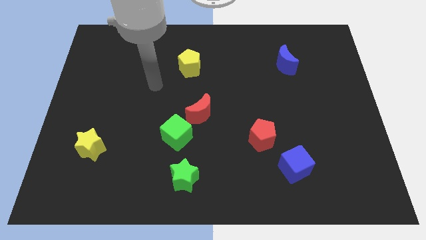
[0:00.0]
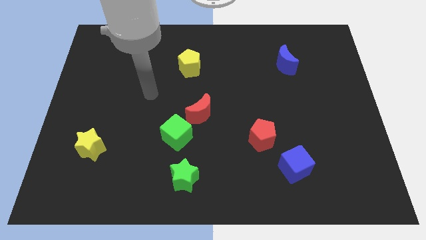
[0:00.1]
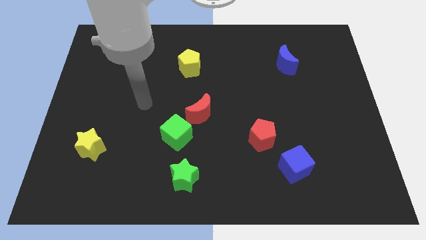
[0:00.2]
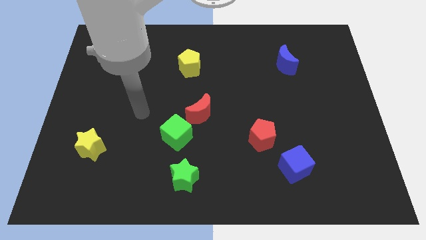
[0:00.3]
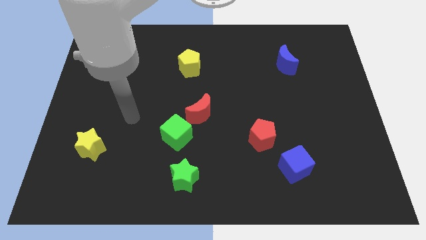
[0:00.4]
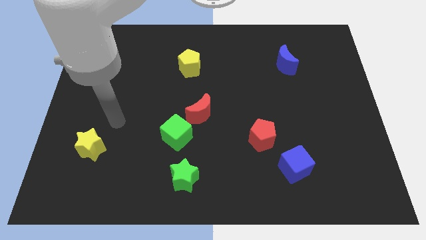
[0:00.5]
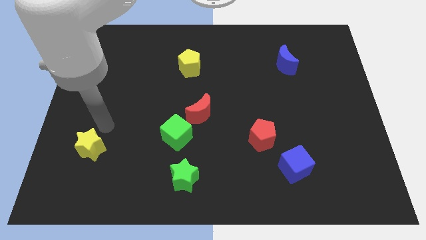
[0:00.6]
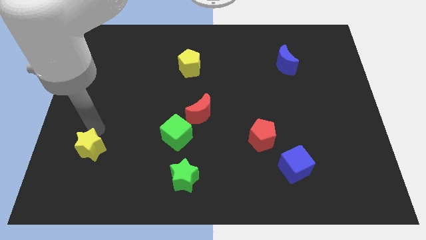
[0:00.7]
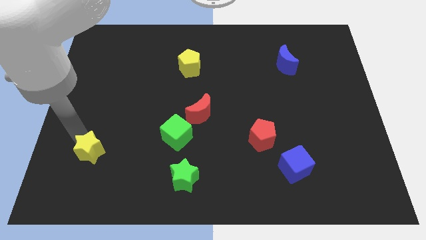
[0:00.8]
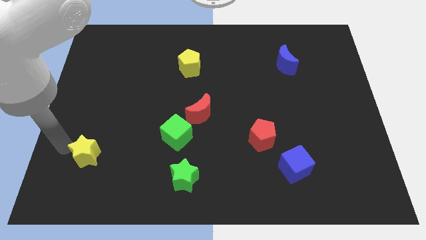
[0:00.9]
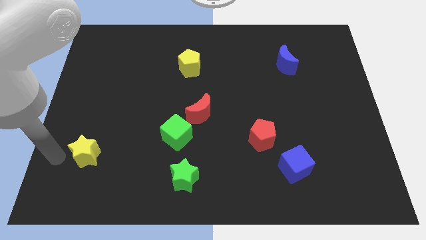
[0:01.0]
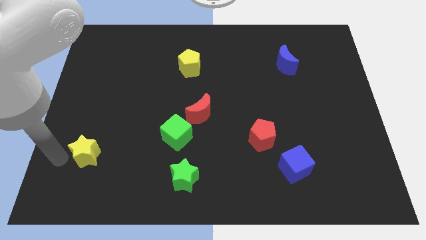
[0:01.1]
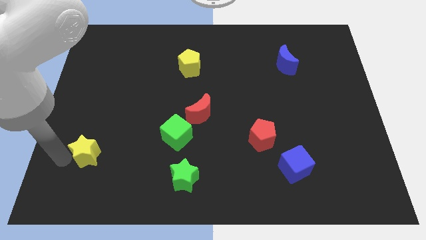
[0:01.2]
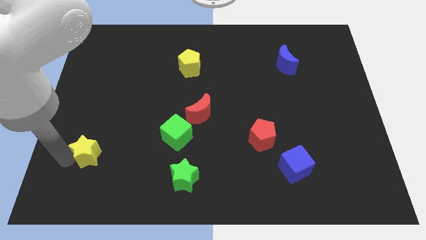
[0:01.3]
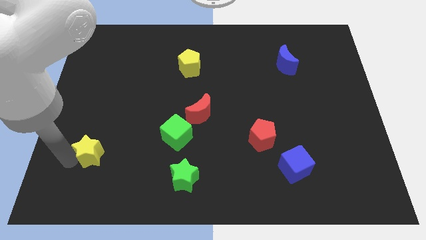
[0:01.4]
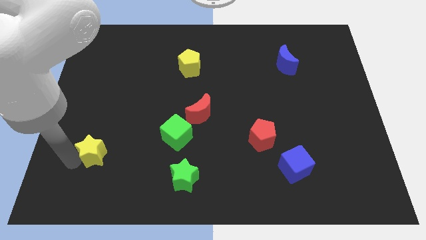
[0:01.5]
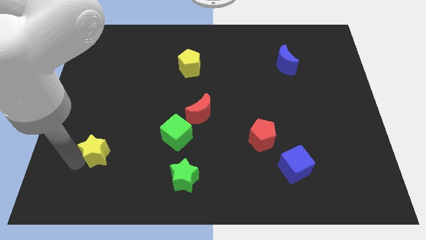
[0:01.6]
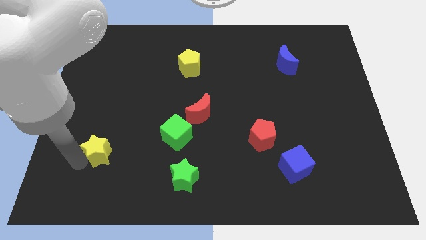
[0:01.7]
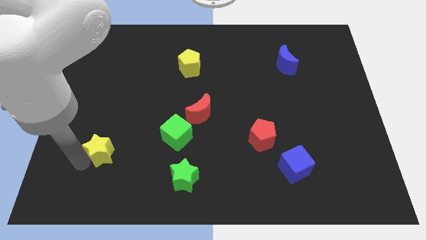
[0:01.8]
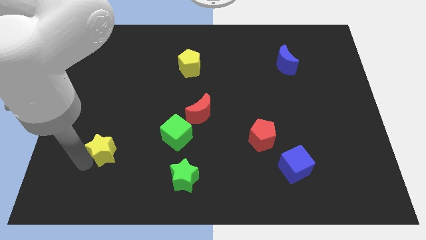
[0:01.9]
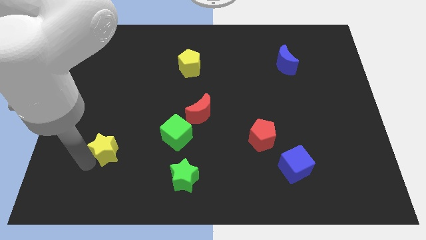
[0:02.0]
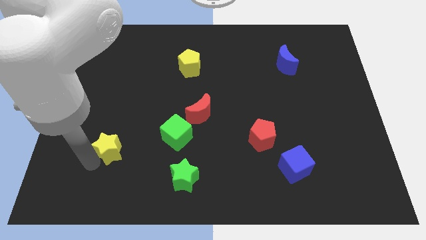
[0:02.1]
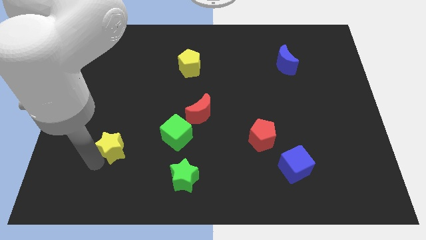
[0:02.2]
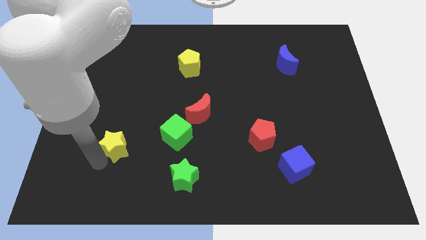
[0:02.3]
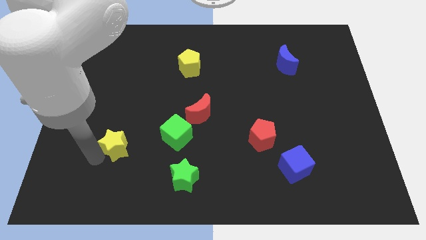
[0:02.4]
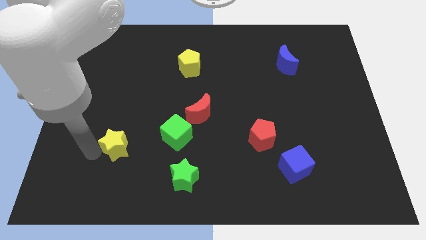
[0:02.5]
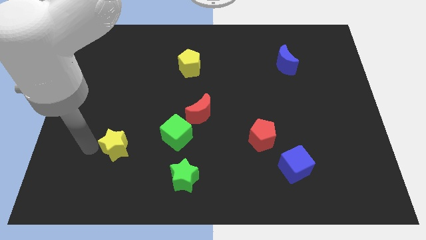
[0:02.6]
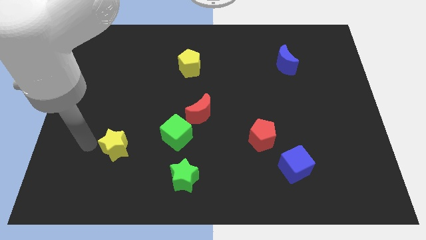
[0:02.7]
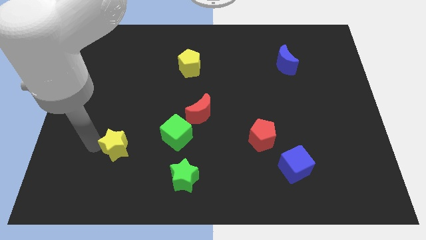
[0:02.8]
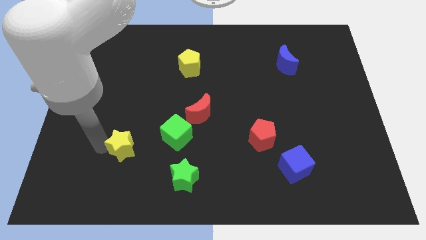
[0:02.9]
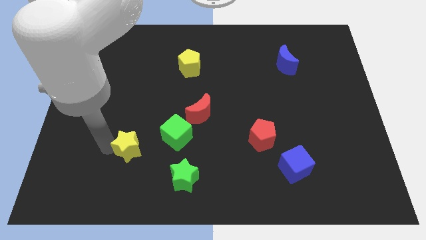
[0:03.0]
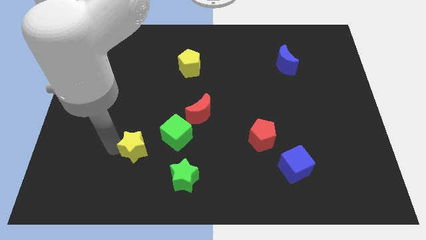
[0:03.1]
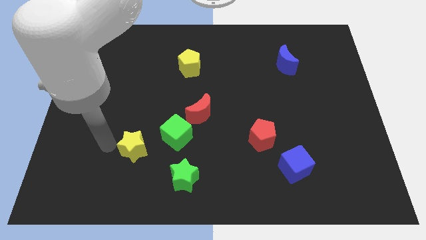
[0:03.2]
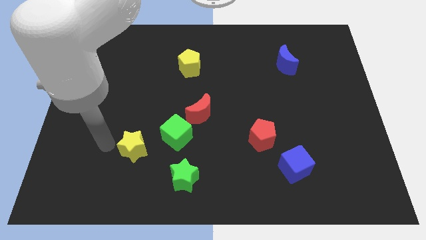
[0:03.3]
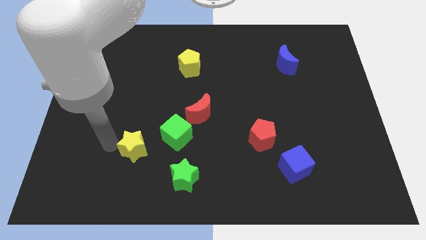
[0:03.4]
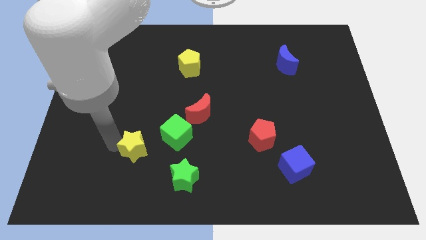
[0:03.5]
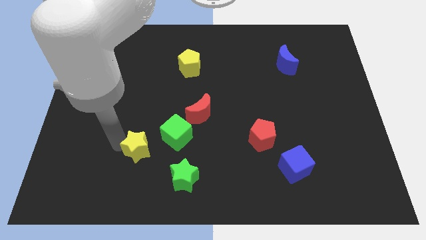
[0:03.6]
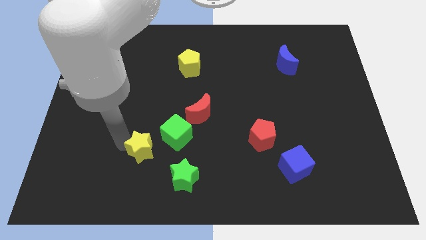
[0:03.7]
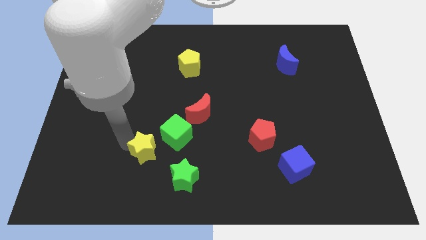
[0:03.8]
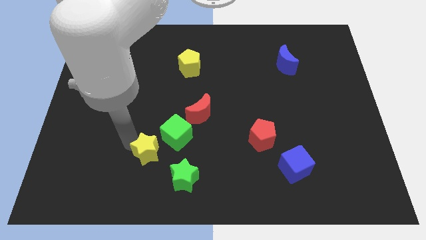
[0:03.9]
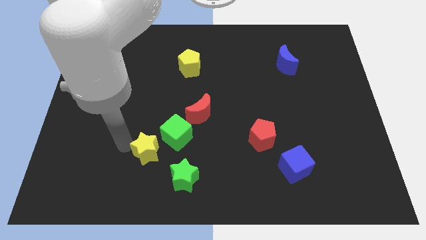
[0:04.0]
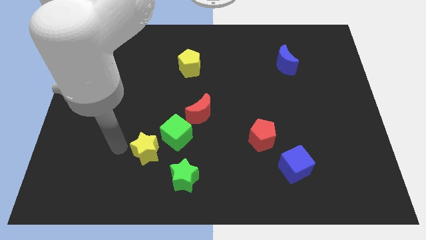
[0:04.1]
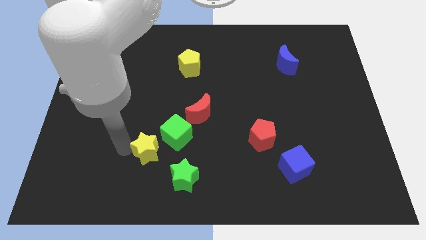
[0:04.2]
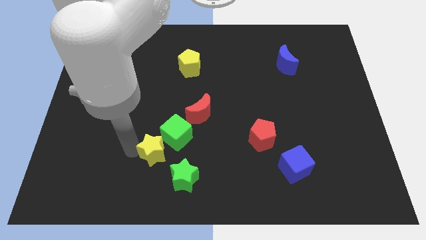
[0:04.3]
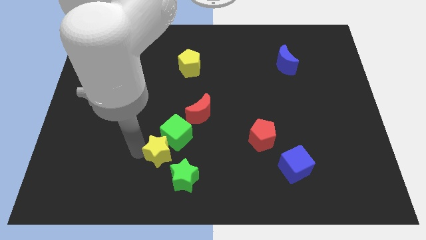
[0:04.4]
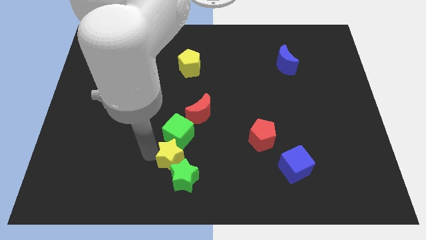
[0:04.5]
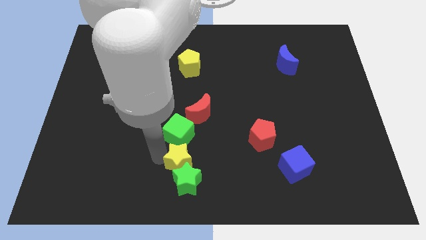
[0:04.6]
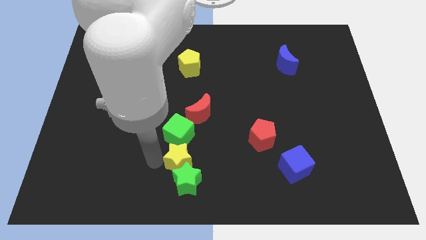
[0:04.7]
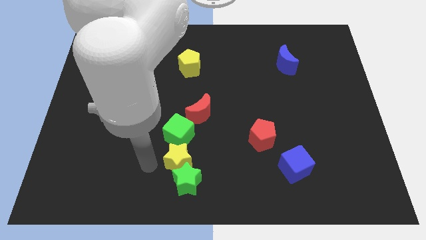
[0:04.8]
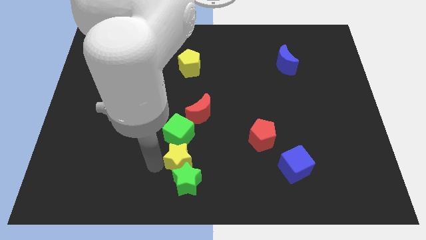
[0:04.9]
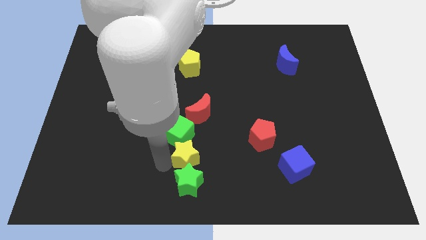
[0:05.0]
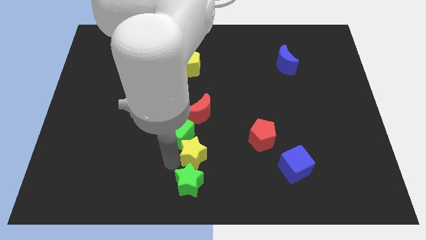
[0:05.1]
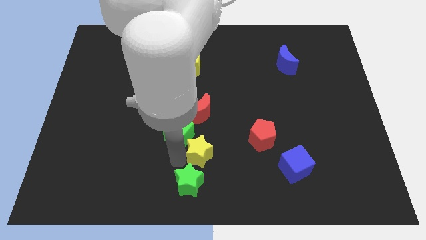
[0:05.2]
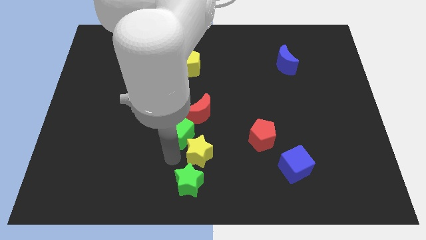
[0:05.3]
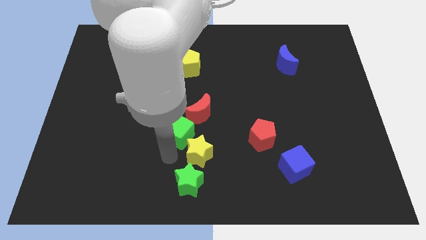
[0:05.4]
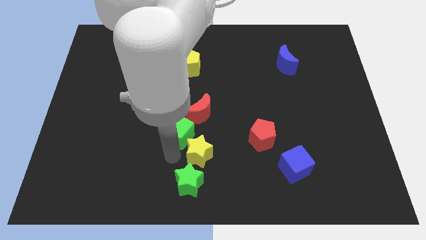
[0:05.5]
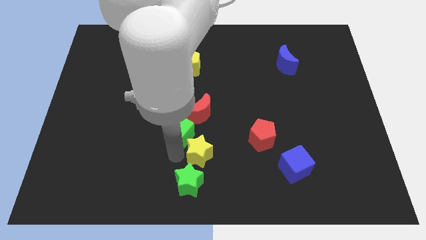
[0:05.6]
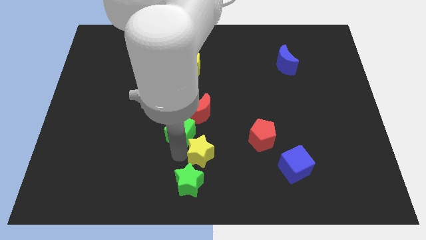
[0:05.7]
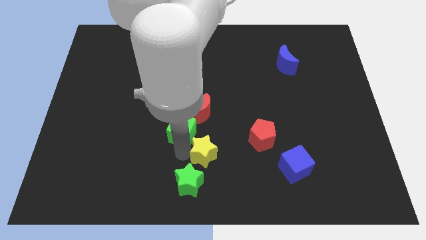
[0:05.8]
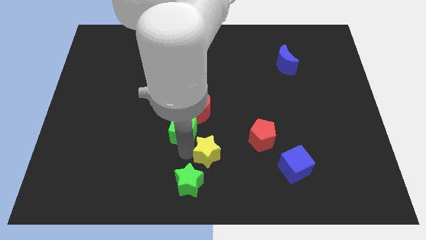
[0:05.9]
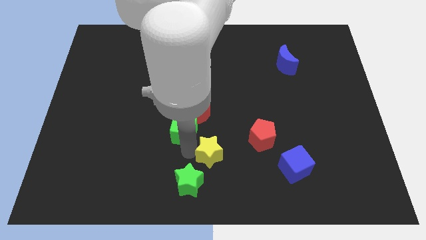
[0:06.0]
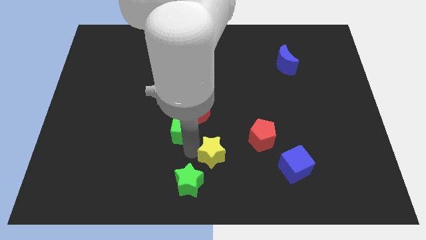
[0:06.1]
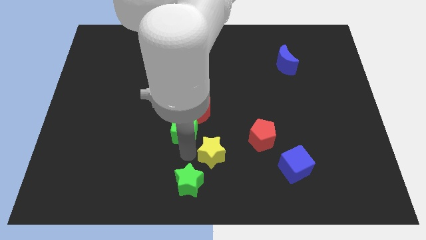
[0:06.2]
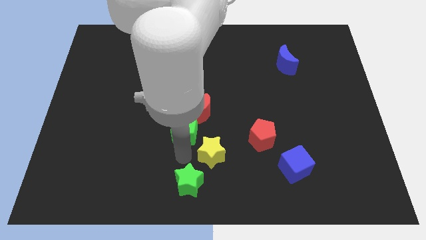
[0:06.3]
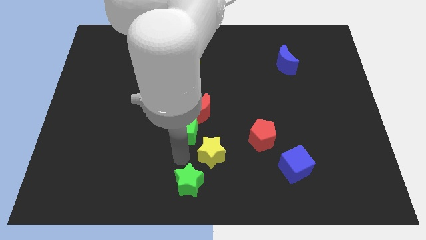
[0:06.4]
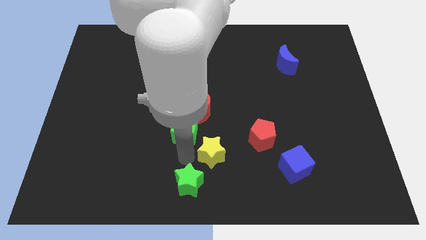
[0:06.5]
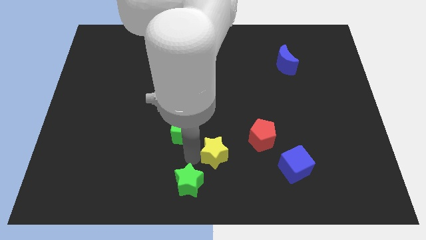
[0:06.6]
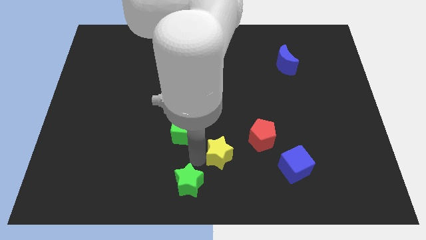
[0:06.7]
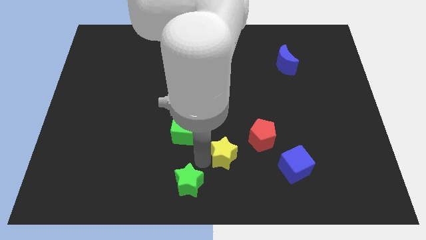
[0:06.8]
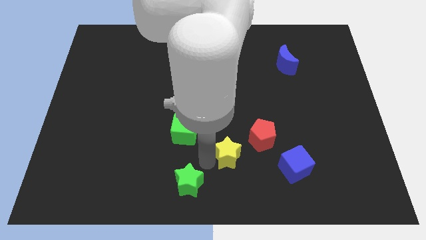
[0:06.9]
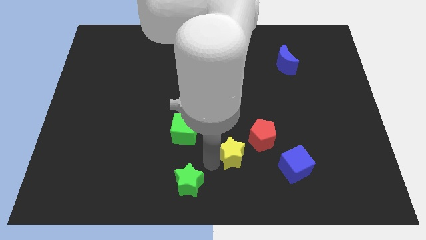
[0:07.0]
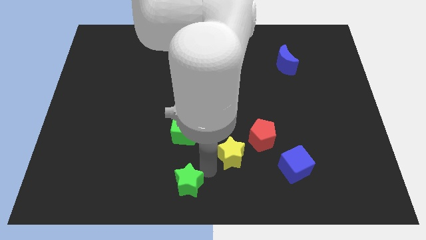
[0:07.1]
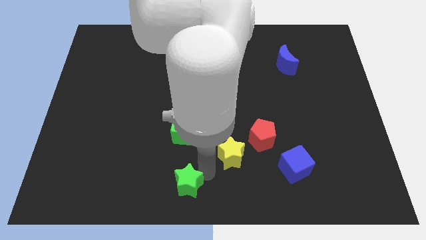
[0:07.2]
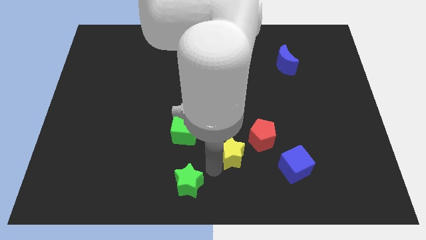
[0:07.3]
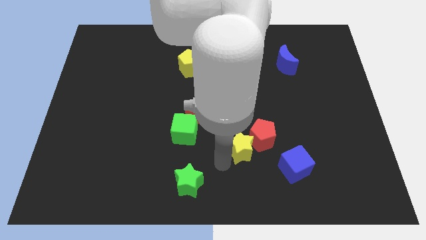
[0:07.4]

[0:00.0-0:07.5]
put the yellow star towards the red pentagon
